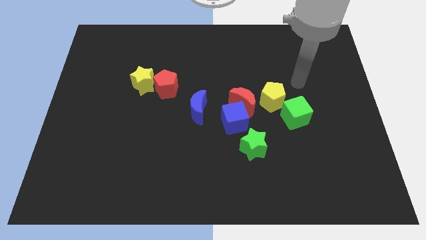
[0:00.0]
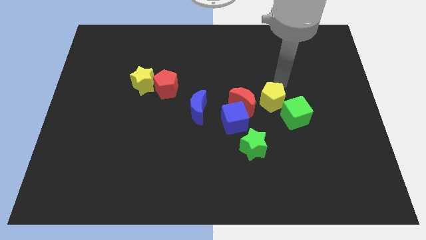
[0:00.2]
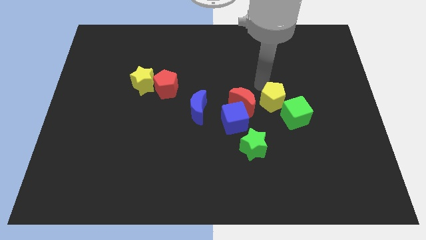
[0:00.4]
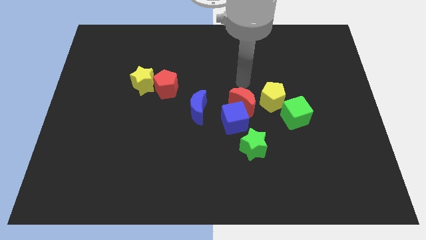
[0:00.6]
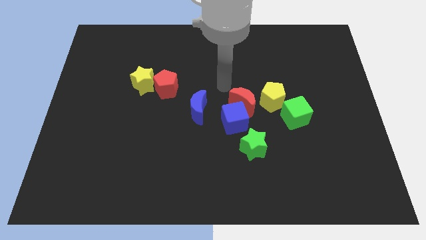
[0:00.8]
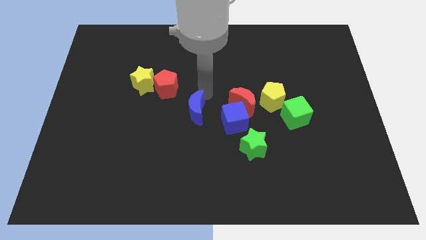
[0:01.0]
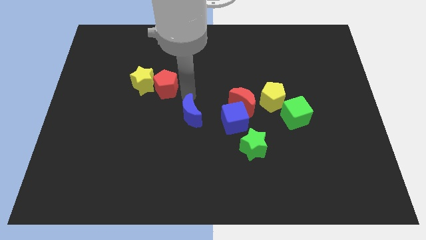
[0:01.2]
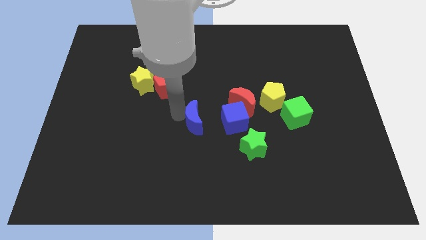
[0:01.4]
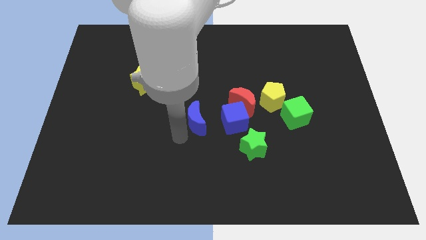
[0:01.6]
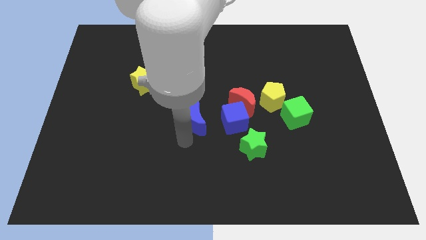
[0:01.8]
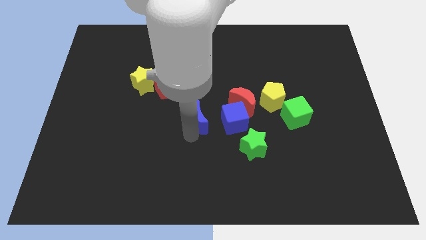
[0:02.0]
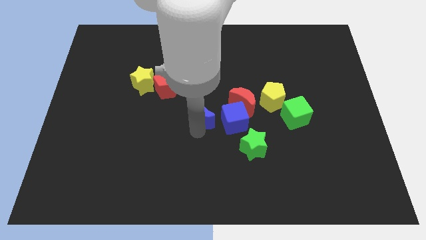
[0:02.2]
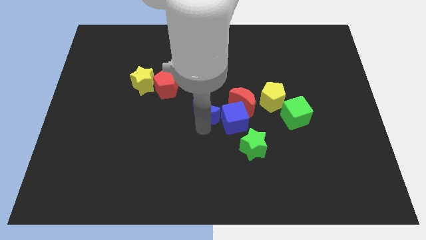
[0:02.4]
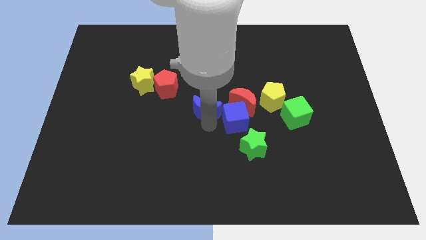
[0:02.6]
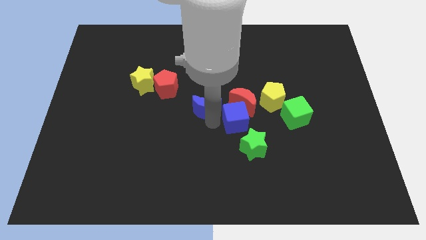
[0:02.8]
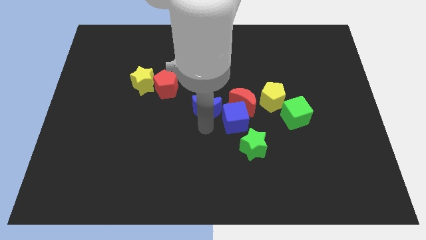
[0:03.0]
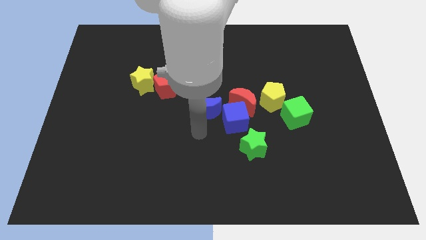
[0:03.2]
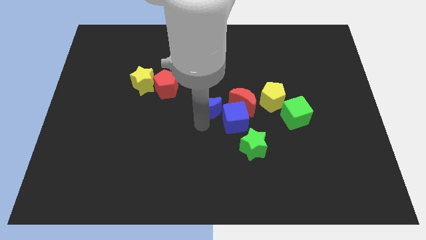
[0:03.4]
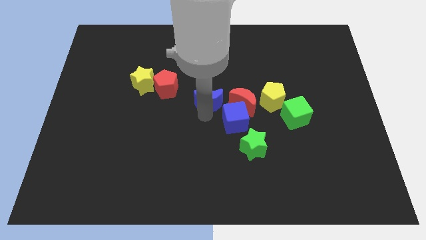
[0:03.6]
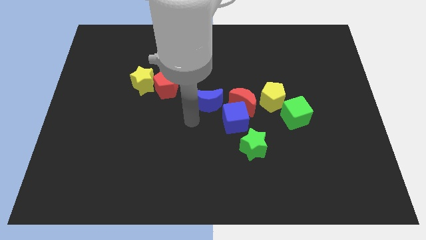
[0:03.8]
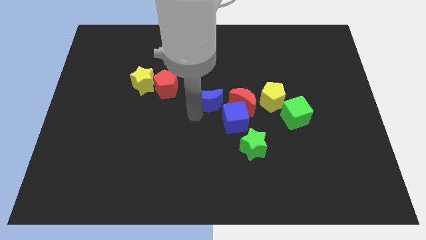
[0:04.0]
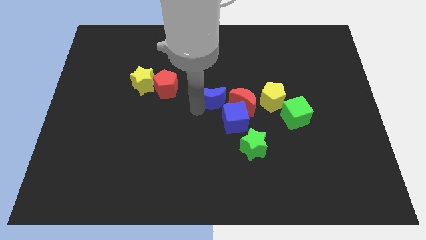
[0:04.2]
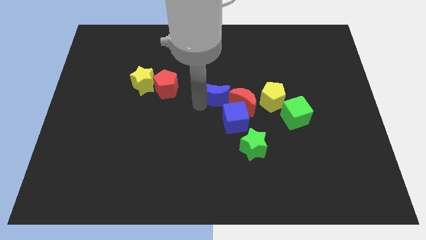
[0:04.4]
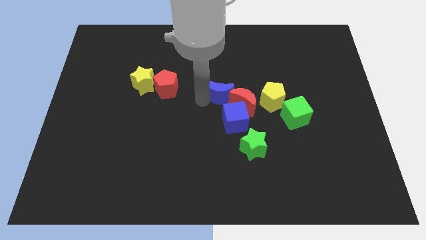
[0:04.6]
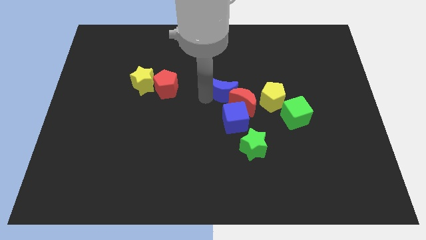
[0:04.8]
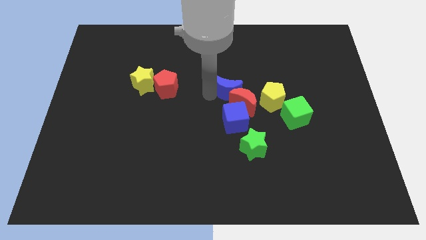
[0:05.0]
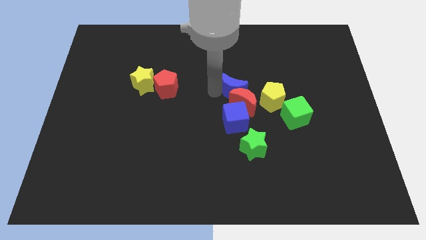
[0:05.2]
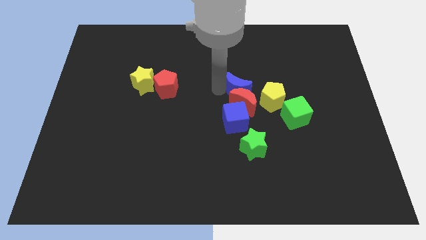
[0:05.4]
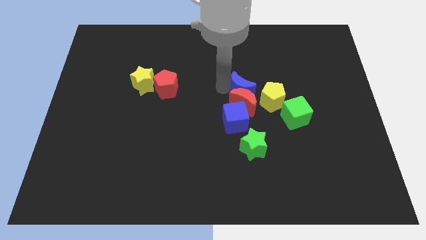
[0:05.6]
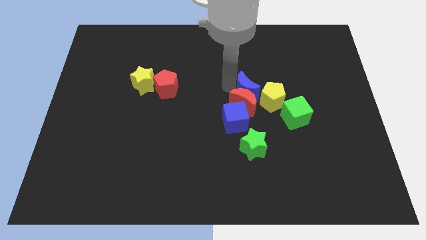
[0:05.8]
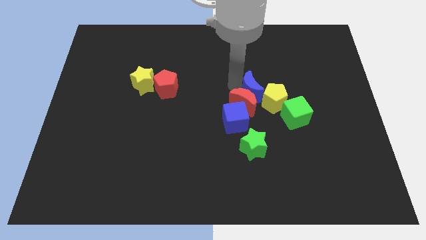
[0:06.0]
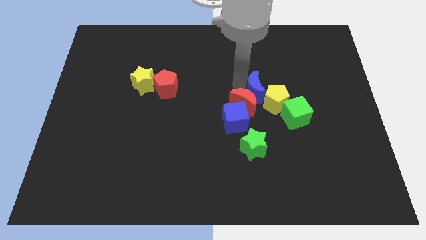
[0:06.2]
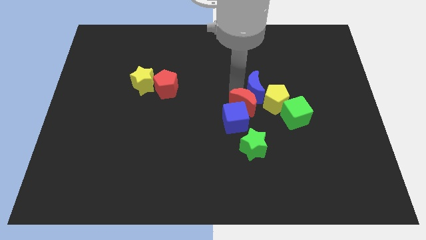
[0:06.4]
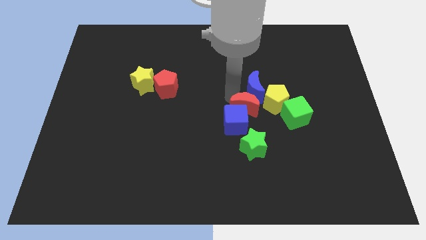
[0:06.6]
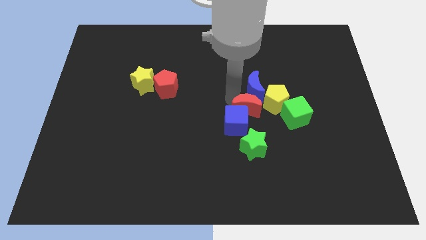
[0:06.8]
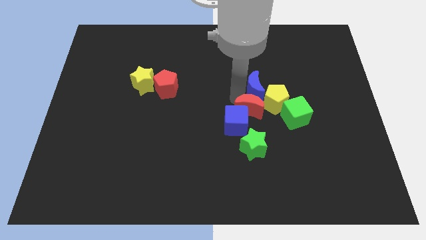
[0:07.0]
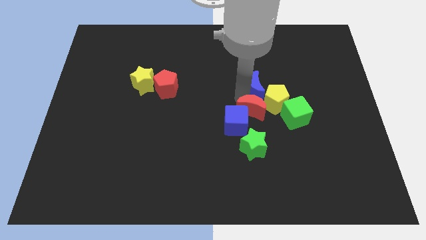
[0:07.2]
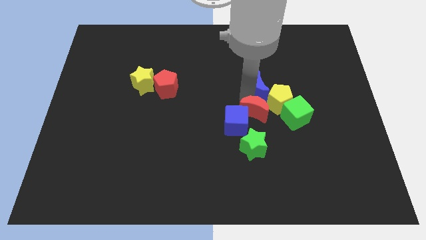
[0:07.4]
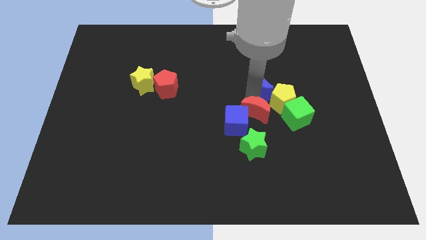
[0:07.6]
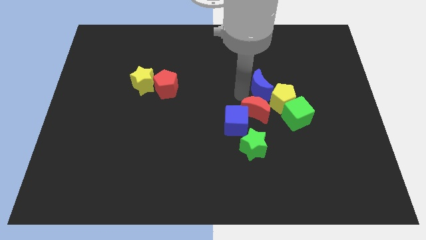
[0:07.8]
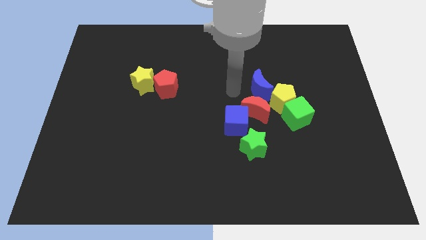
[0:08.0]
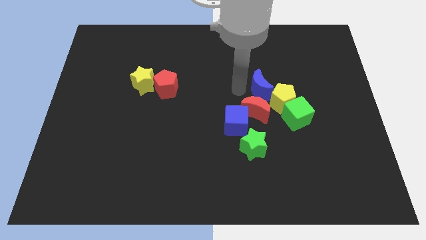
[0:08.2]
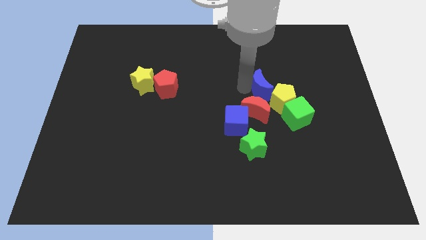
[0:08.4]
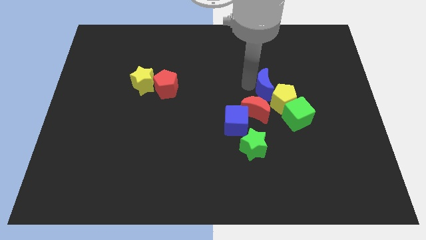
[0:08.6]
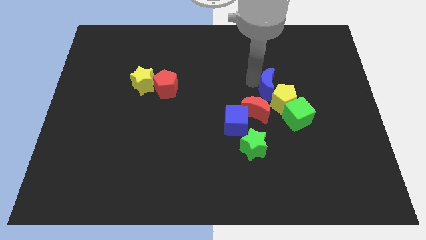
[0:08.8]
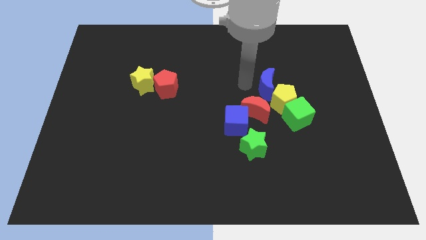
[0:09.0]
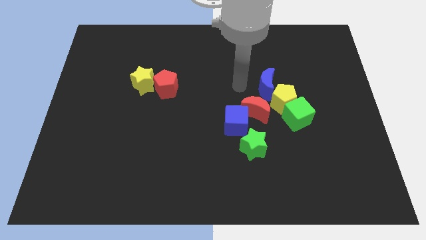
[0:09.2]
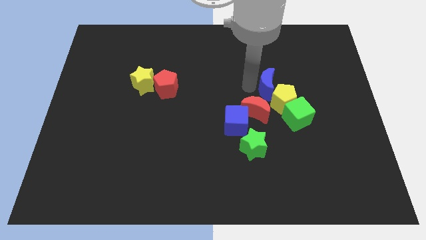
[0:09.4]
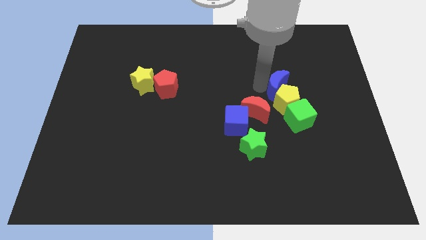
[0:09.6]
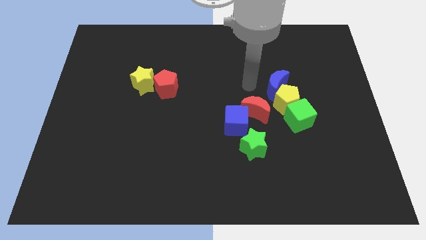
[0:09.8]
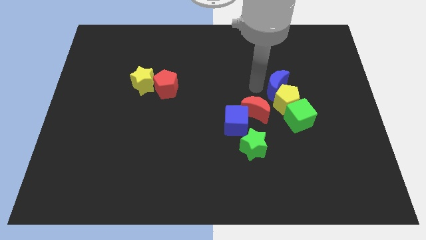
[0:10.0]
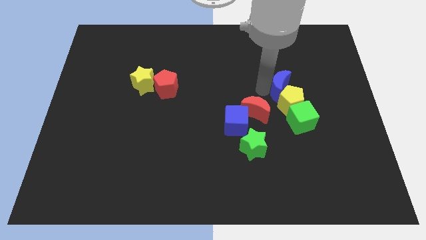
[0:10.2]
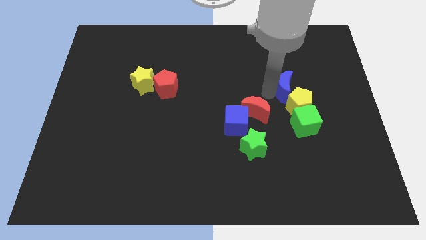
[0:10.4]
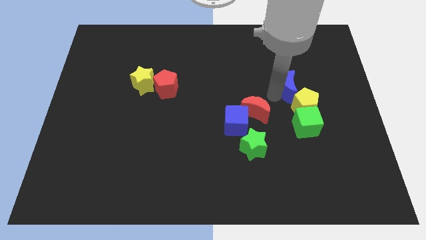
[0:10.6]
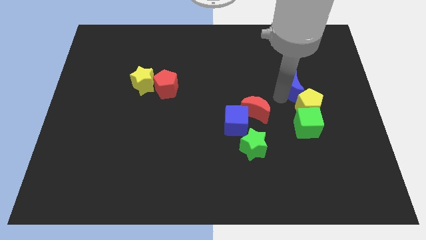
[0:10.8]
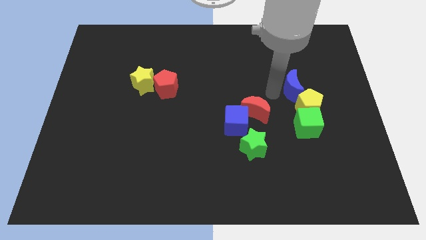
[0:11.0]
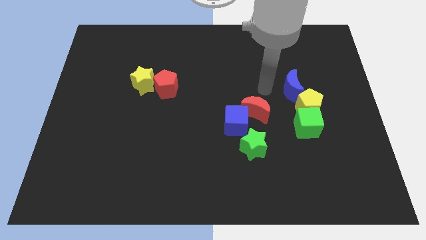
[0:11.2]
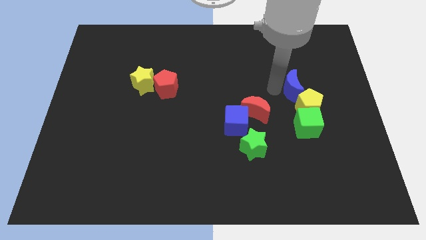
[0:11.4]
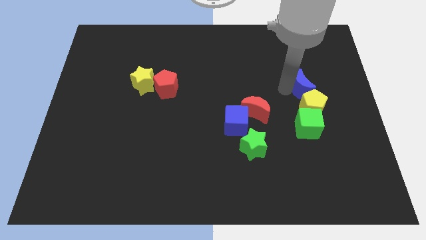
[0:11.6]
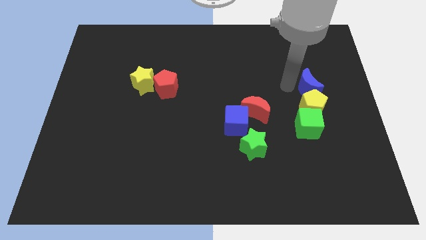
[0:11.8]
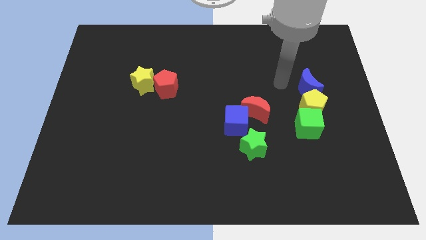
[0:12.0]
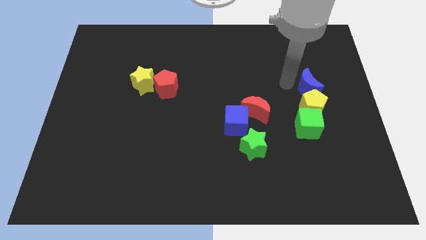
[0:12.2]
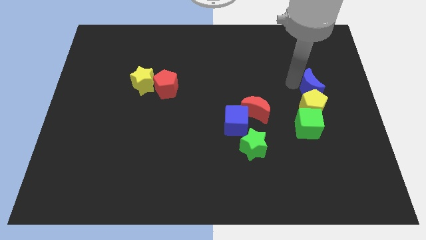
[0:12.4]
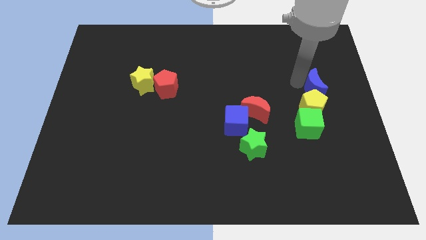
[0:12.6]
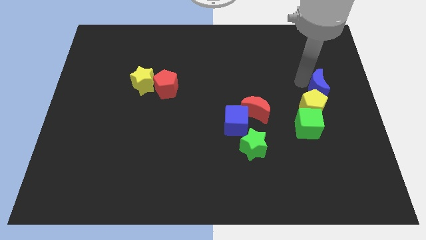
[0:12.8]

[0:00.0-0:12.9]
put the blue moon to the right side
